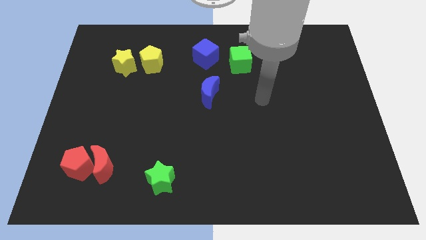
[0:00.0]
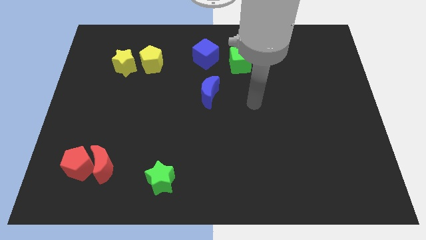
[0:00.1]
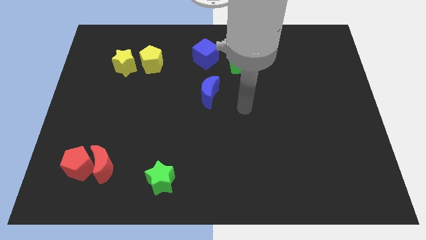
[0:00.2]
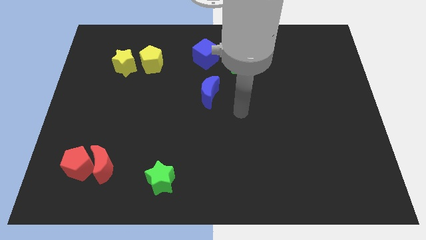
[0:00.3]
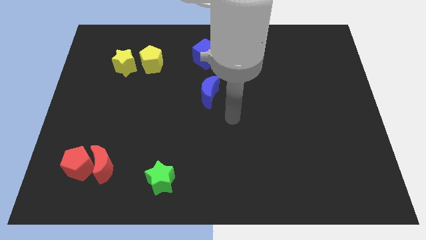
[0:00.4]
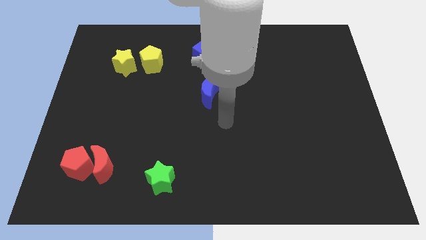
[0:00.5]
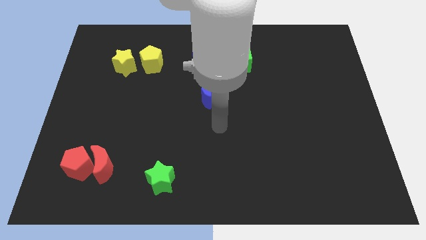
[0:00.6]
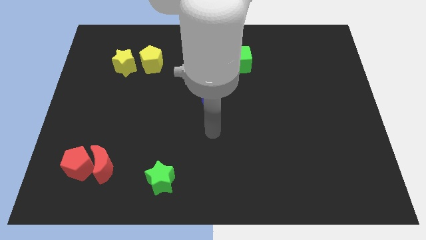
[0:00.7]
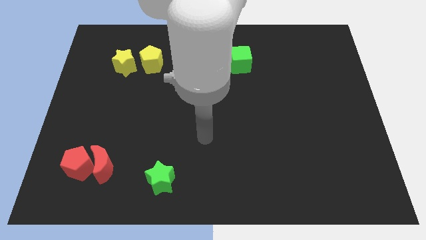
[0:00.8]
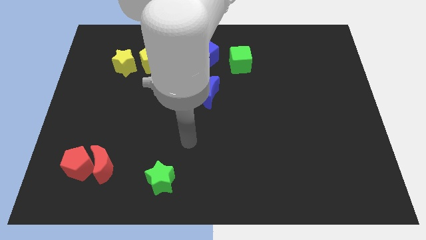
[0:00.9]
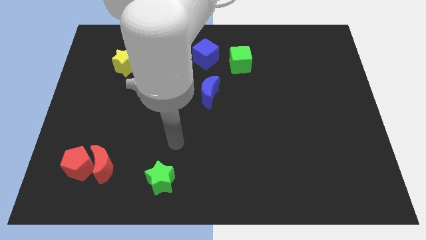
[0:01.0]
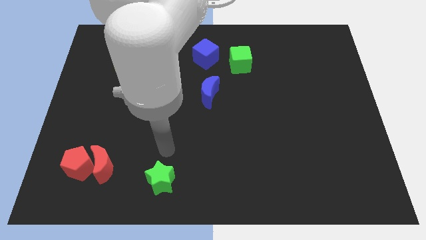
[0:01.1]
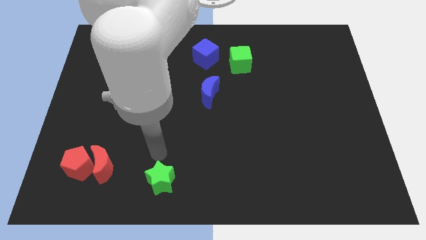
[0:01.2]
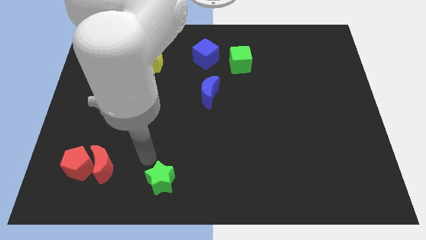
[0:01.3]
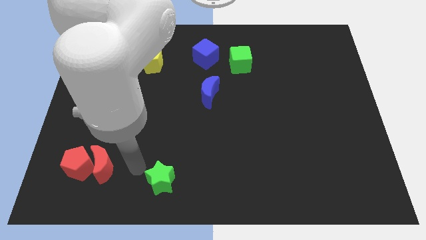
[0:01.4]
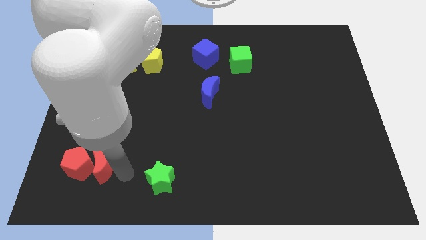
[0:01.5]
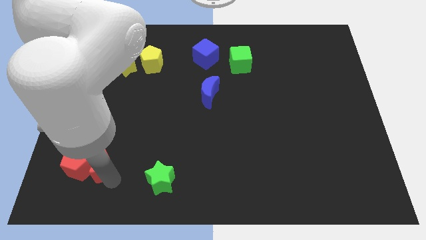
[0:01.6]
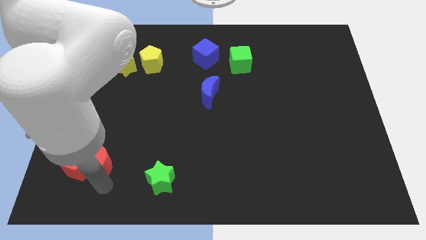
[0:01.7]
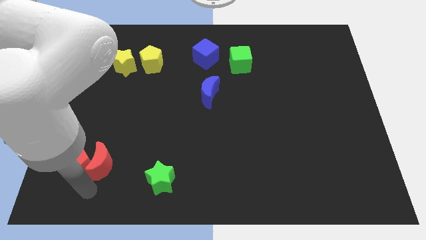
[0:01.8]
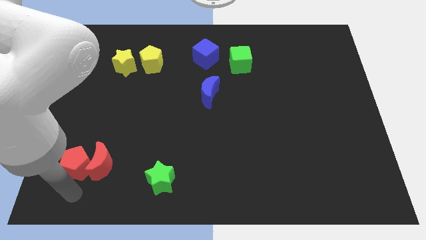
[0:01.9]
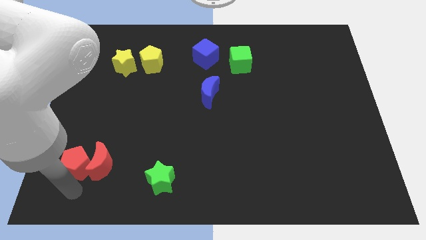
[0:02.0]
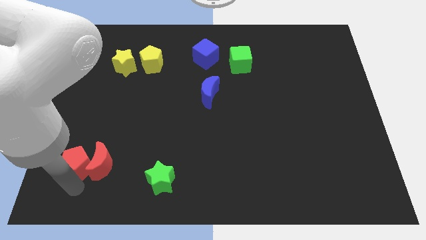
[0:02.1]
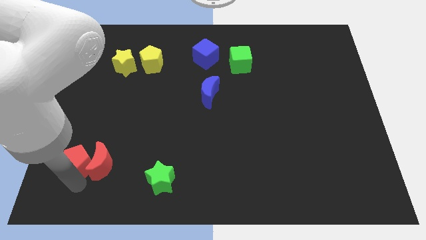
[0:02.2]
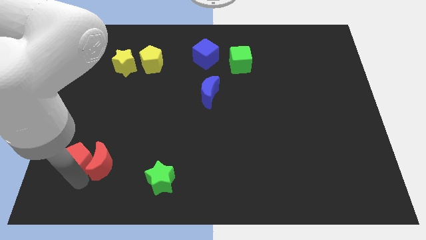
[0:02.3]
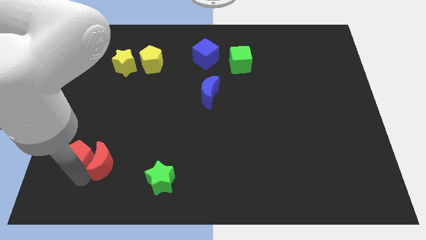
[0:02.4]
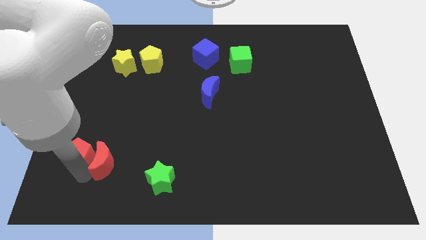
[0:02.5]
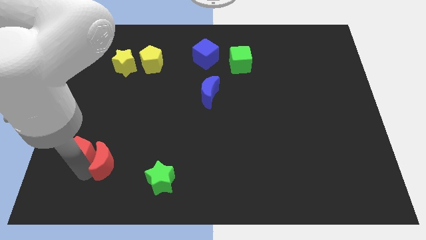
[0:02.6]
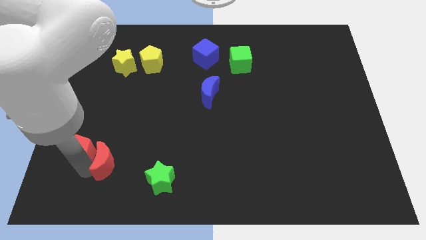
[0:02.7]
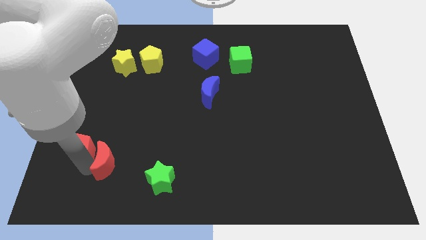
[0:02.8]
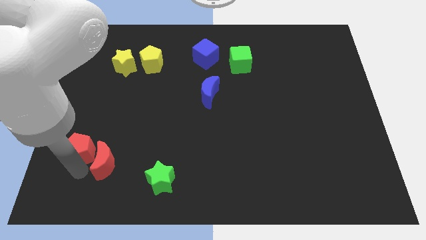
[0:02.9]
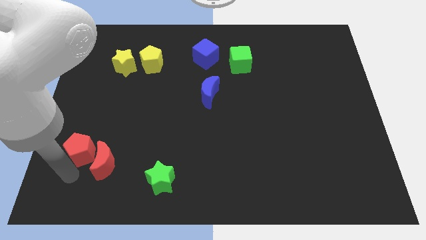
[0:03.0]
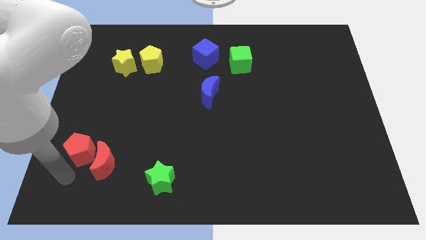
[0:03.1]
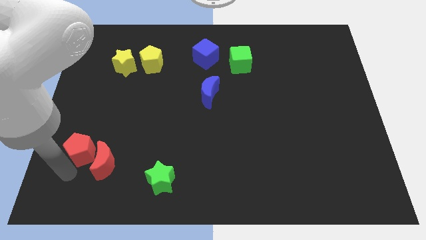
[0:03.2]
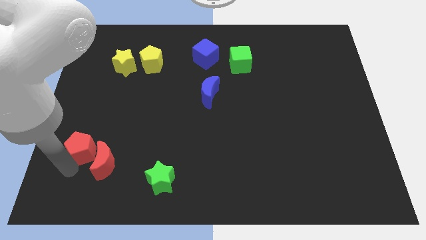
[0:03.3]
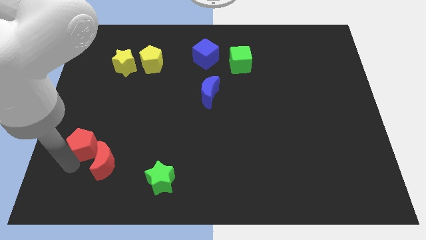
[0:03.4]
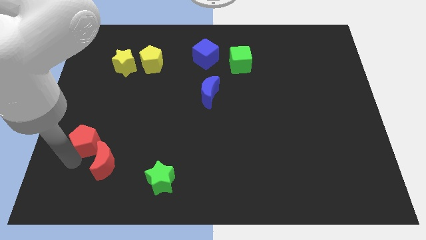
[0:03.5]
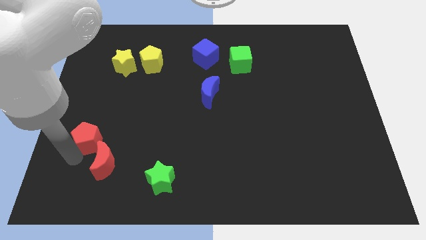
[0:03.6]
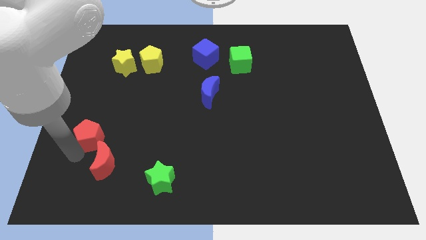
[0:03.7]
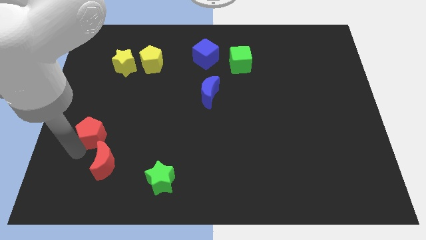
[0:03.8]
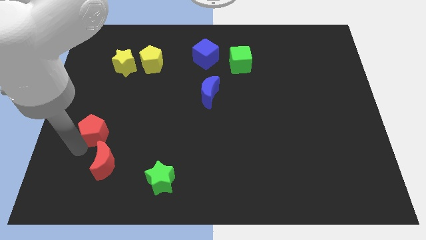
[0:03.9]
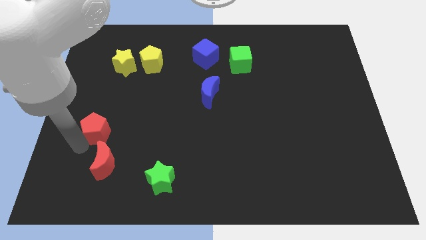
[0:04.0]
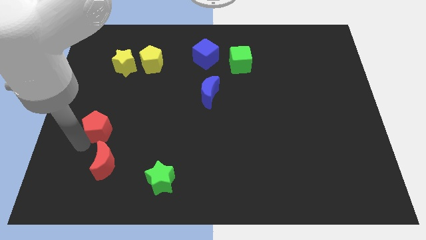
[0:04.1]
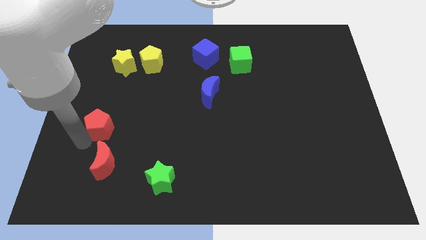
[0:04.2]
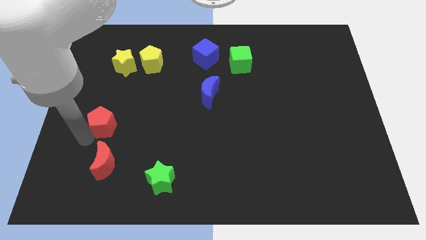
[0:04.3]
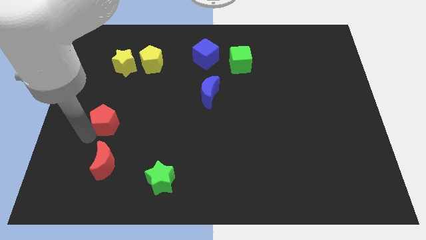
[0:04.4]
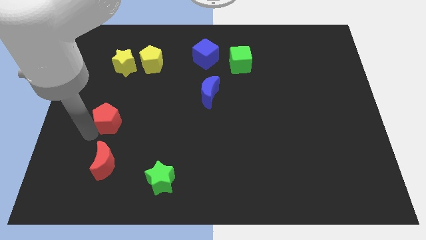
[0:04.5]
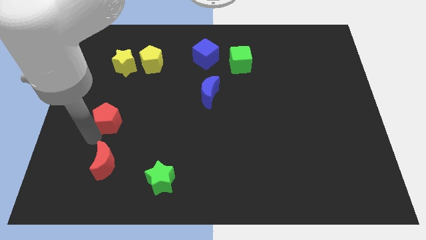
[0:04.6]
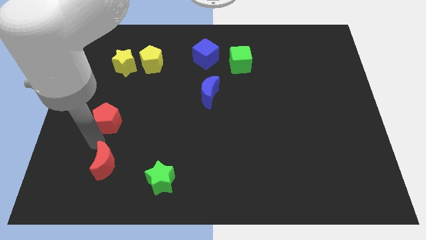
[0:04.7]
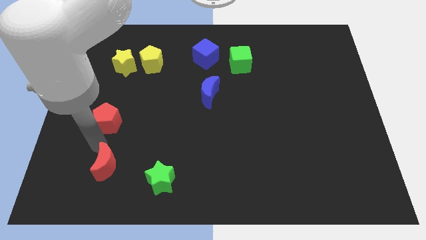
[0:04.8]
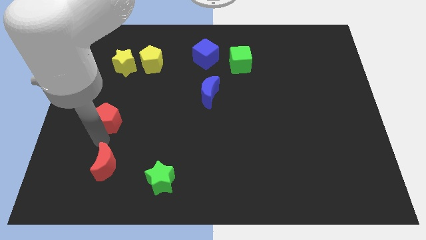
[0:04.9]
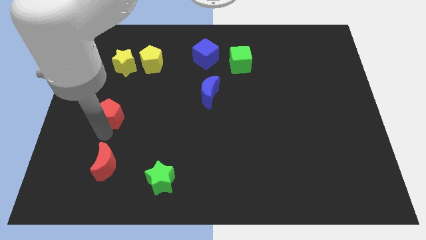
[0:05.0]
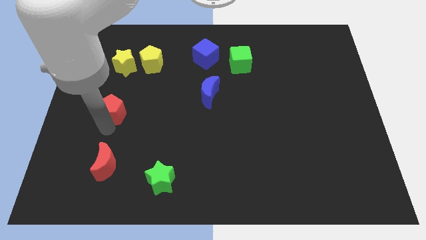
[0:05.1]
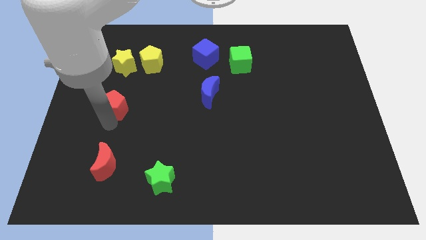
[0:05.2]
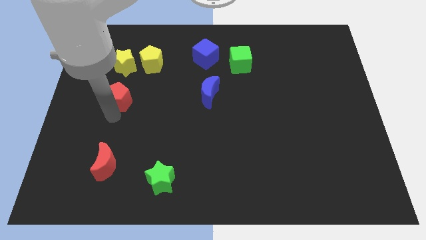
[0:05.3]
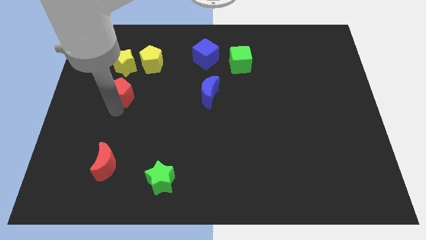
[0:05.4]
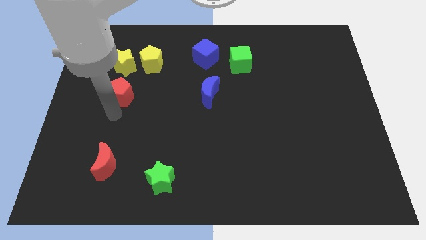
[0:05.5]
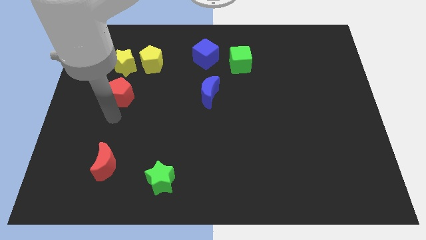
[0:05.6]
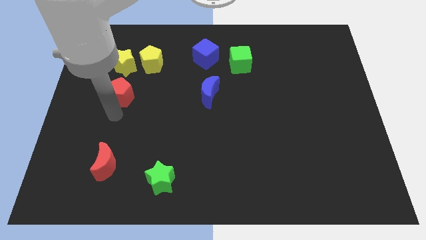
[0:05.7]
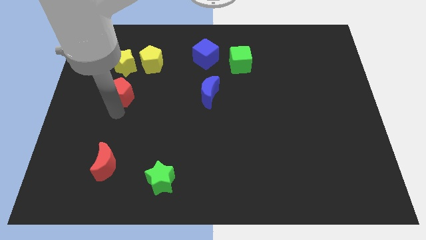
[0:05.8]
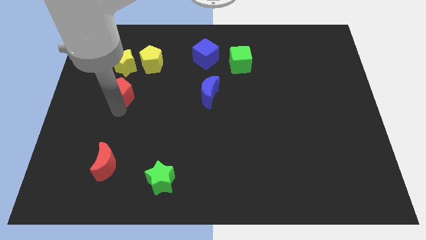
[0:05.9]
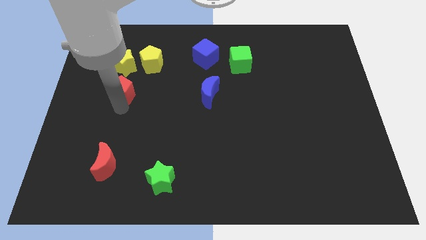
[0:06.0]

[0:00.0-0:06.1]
push the red pentagon to the bottom left of the yellow pentagon

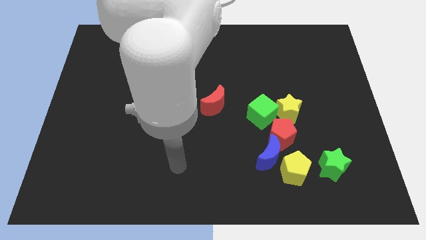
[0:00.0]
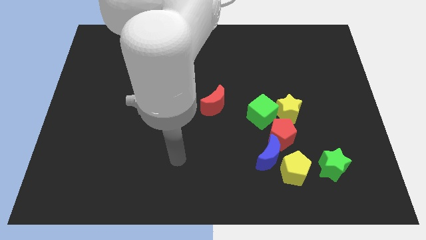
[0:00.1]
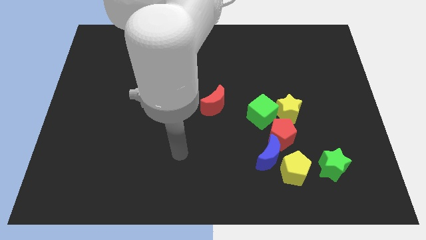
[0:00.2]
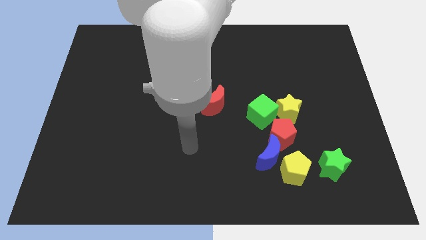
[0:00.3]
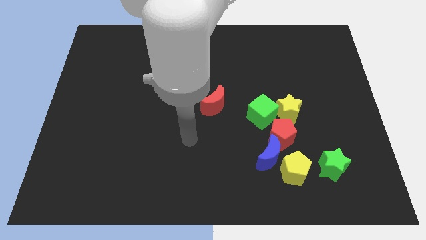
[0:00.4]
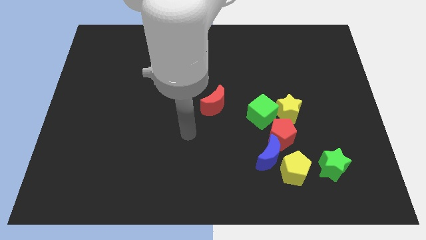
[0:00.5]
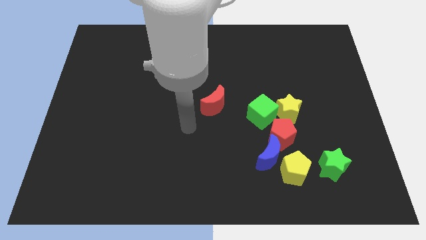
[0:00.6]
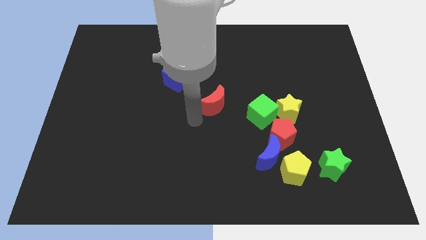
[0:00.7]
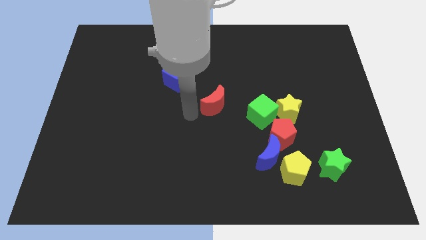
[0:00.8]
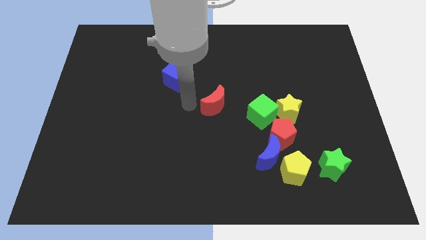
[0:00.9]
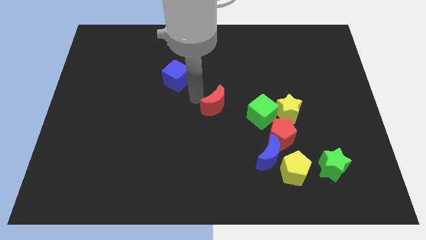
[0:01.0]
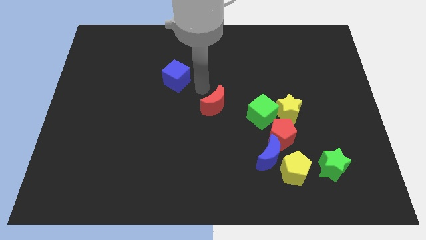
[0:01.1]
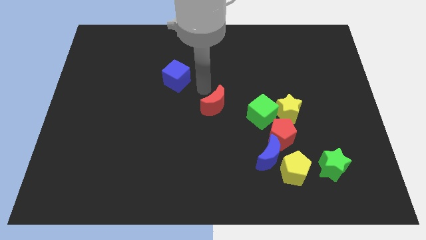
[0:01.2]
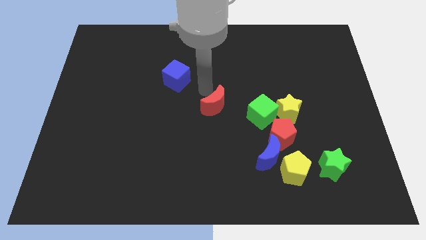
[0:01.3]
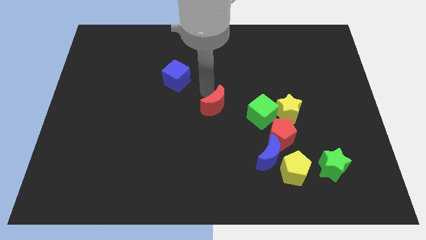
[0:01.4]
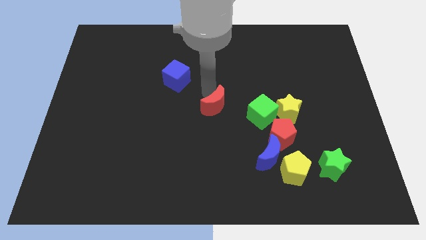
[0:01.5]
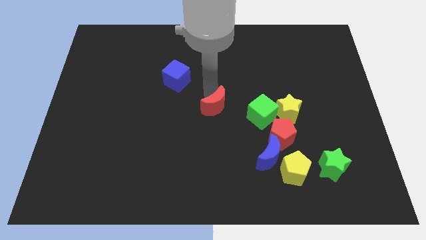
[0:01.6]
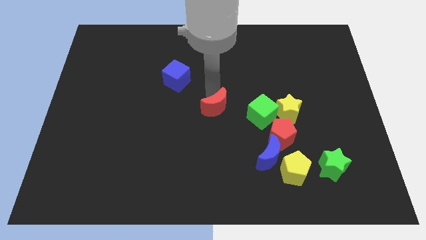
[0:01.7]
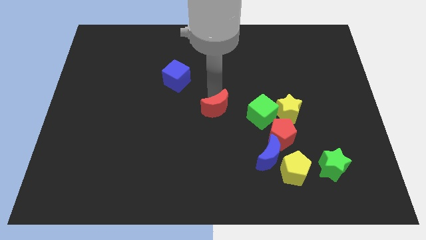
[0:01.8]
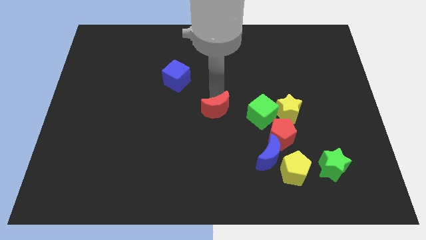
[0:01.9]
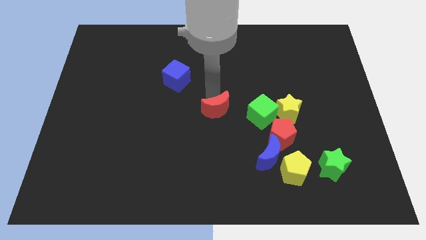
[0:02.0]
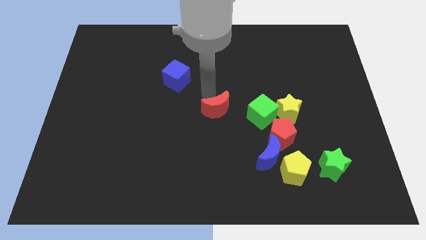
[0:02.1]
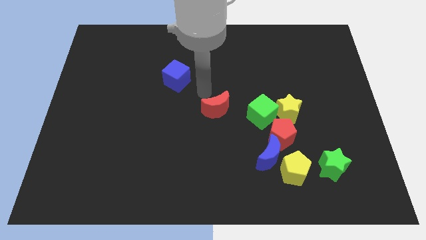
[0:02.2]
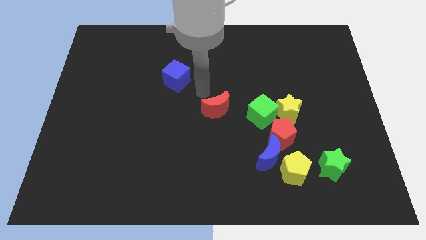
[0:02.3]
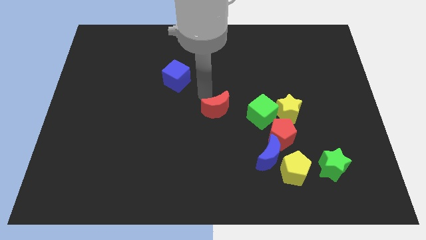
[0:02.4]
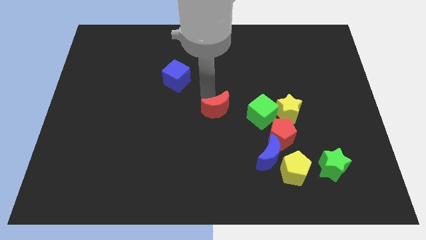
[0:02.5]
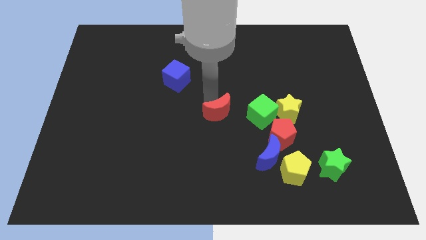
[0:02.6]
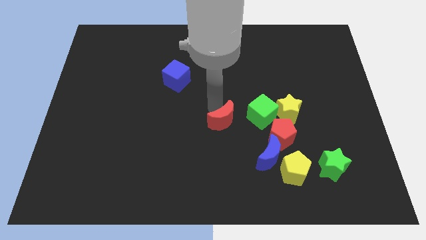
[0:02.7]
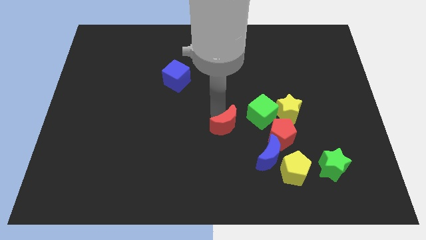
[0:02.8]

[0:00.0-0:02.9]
move the red moon to the top left of the blue moon
